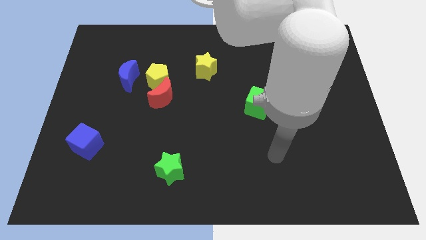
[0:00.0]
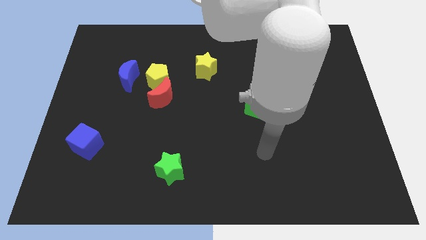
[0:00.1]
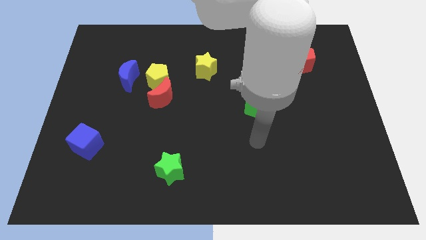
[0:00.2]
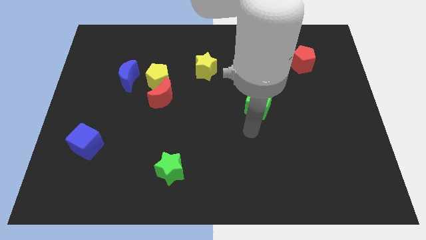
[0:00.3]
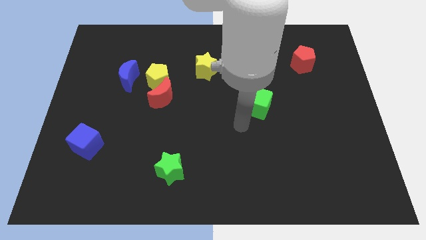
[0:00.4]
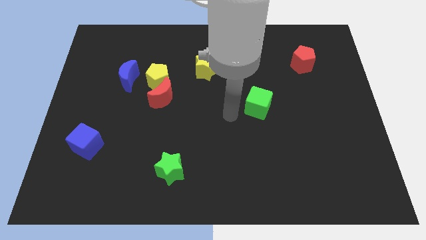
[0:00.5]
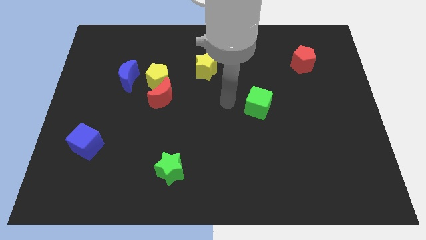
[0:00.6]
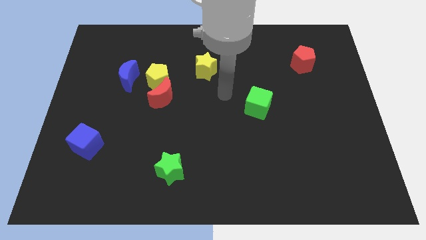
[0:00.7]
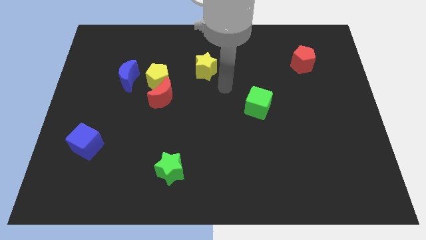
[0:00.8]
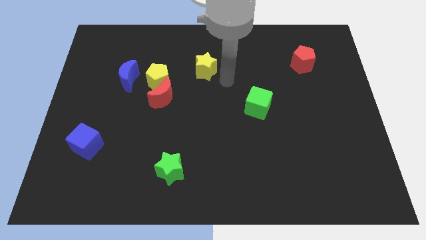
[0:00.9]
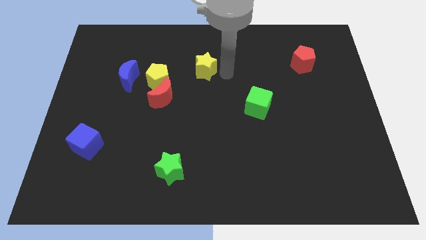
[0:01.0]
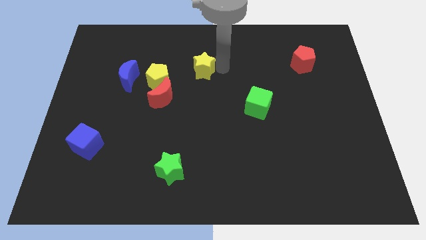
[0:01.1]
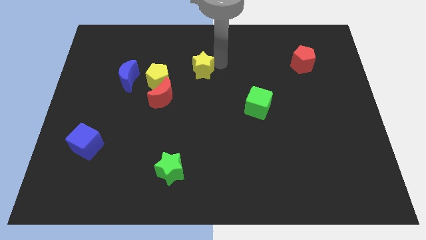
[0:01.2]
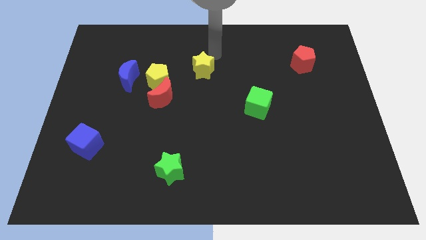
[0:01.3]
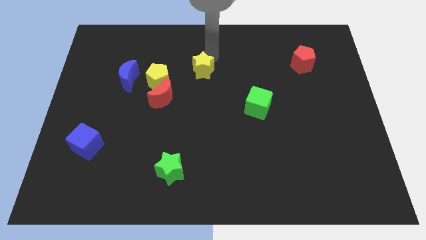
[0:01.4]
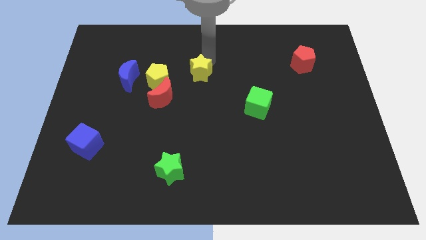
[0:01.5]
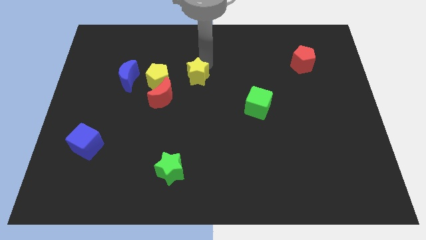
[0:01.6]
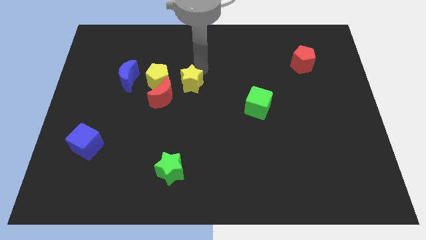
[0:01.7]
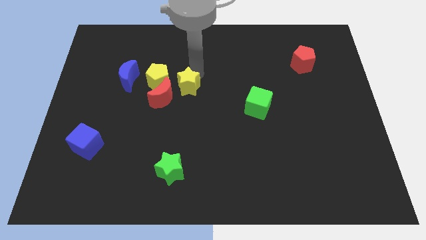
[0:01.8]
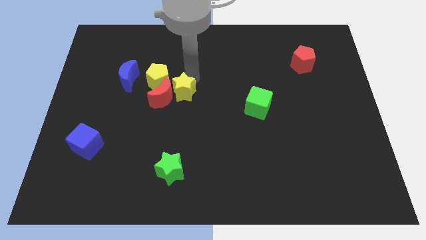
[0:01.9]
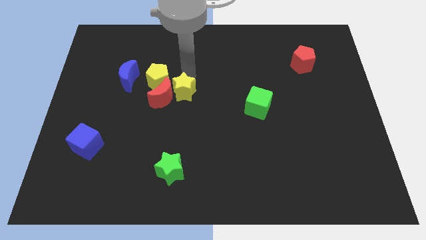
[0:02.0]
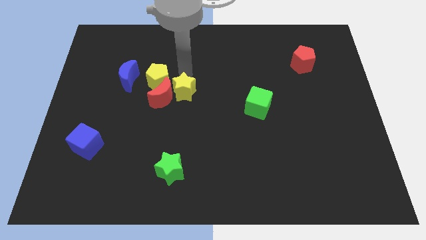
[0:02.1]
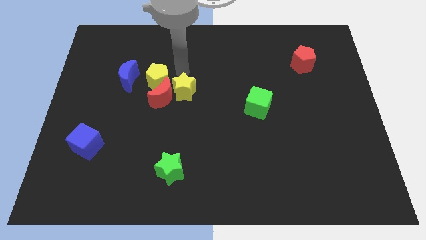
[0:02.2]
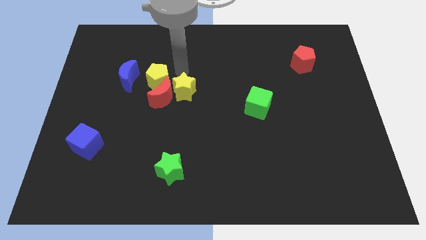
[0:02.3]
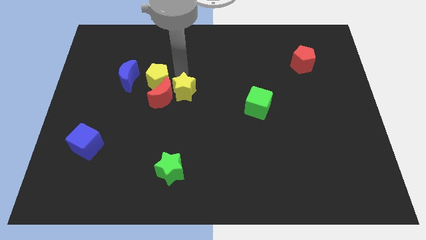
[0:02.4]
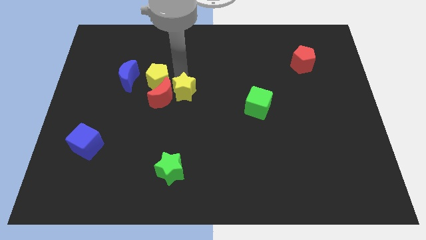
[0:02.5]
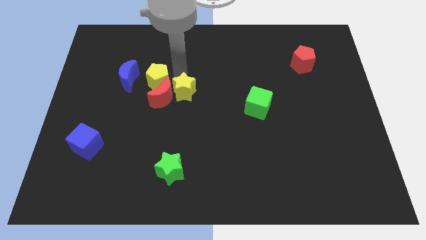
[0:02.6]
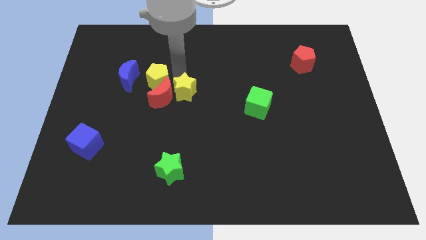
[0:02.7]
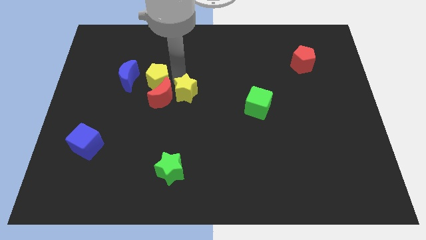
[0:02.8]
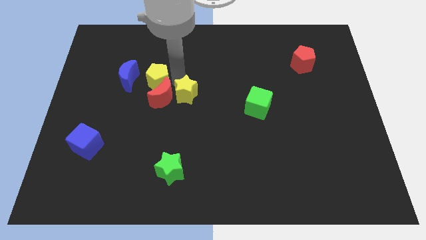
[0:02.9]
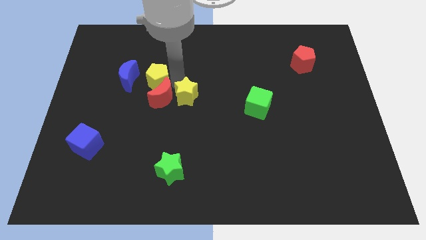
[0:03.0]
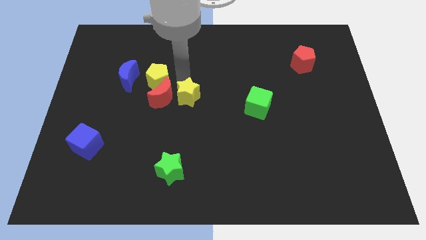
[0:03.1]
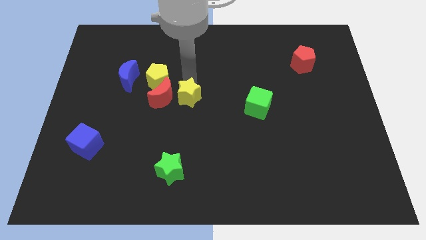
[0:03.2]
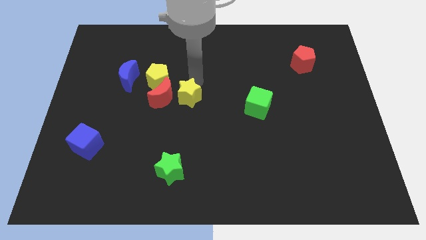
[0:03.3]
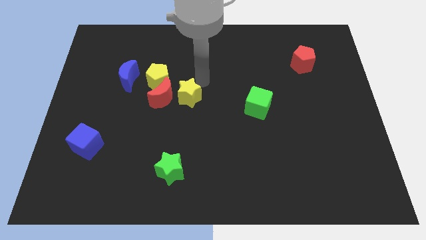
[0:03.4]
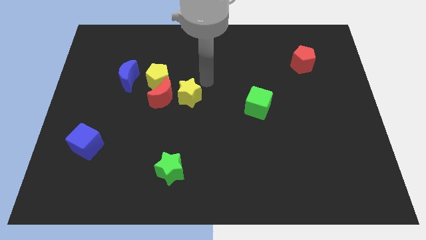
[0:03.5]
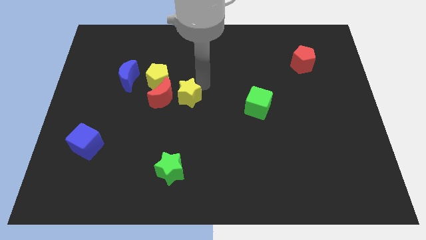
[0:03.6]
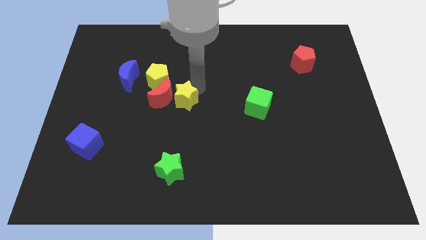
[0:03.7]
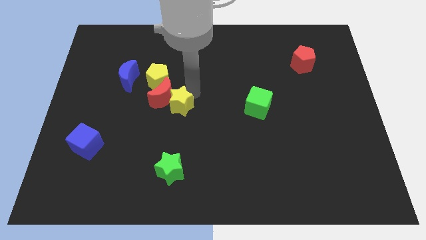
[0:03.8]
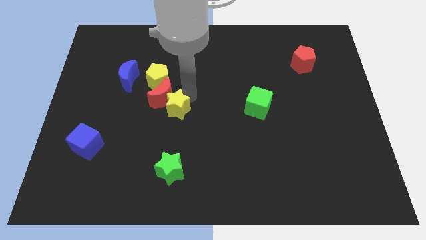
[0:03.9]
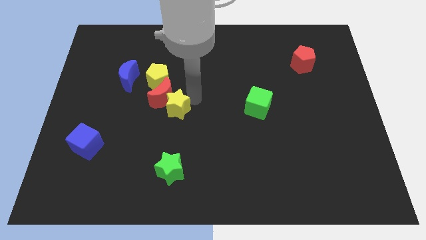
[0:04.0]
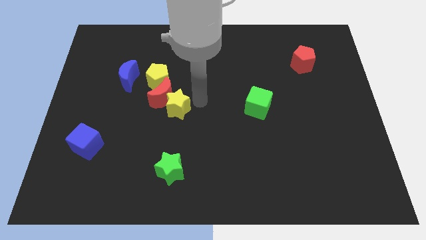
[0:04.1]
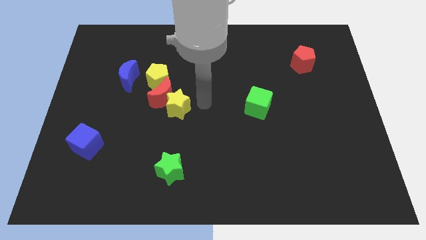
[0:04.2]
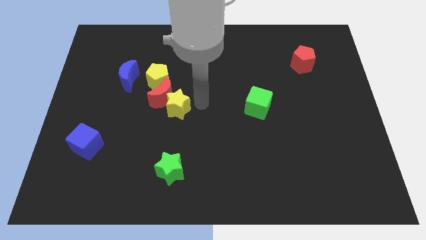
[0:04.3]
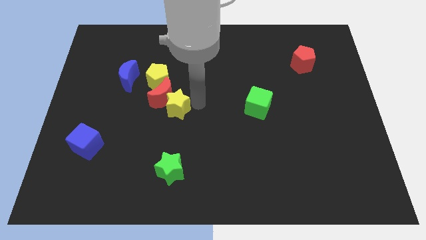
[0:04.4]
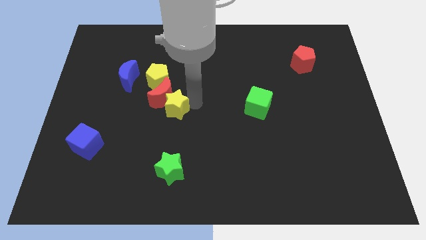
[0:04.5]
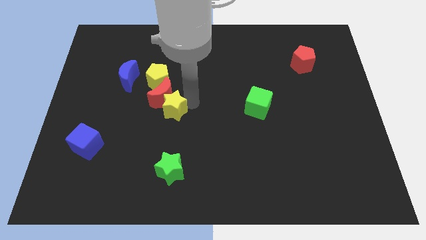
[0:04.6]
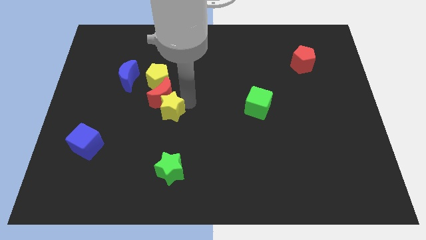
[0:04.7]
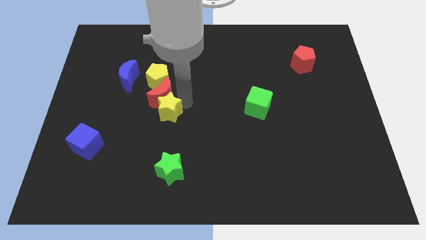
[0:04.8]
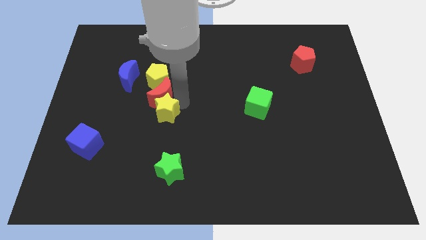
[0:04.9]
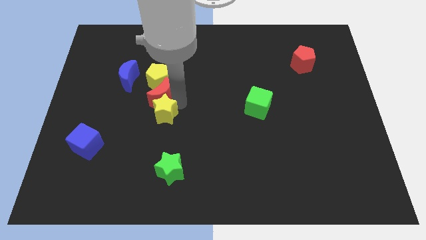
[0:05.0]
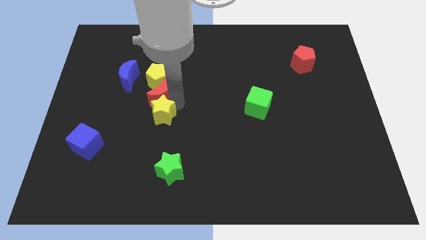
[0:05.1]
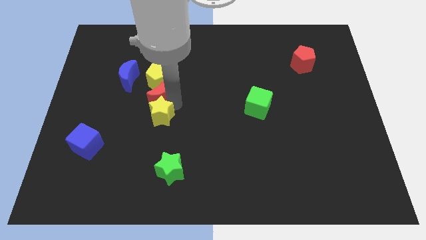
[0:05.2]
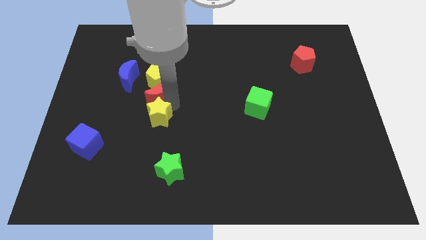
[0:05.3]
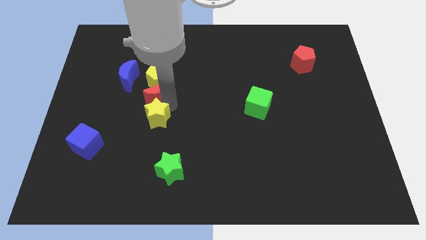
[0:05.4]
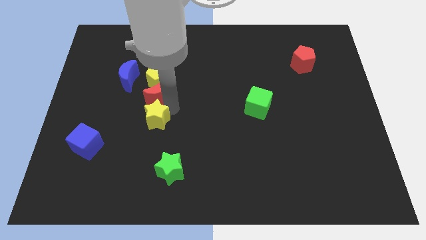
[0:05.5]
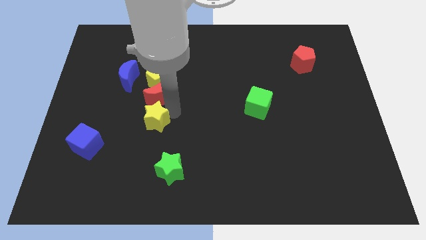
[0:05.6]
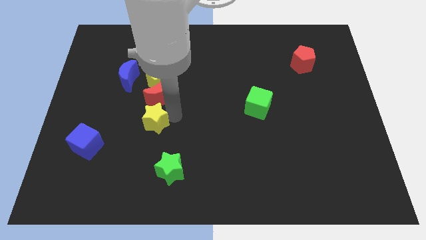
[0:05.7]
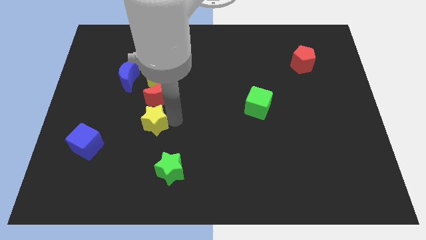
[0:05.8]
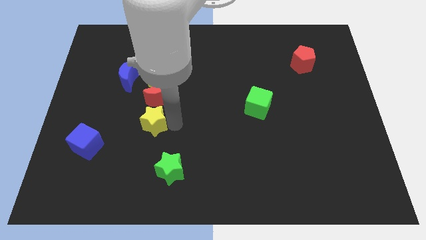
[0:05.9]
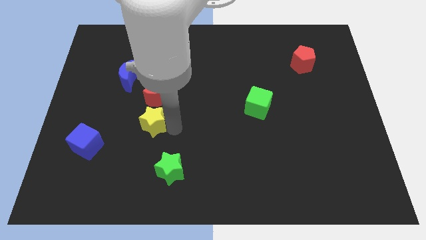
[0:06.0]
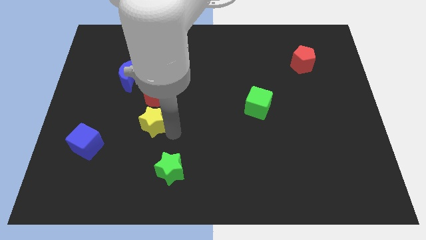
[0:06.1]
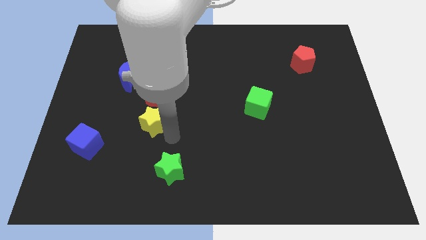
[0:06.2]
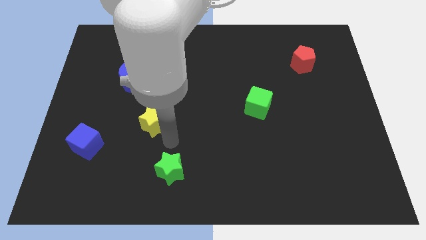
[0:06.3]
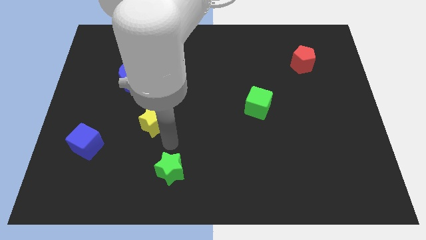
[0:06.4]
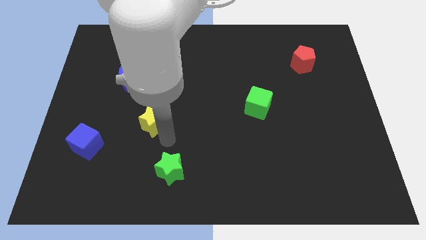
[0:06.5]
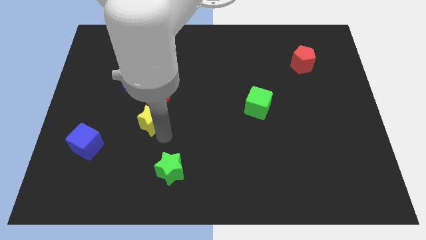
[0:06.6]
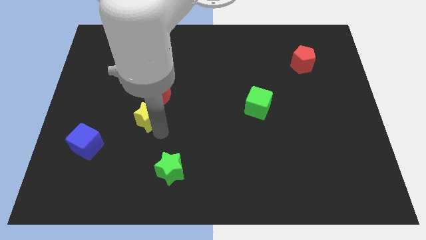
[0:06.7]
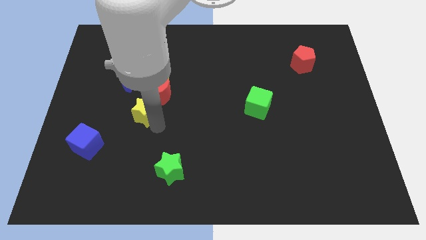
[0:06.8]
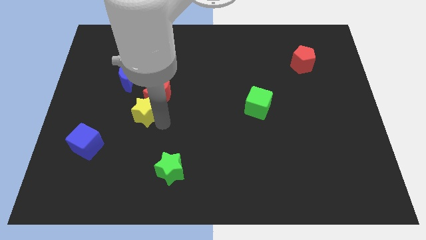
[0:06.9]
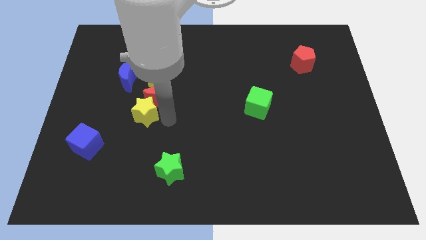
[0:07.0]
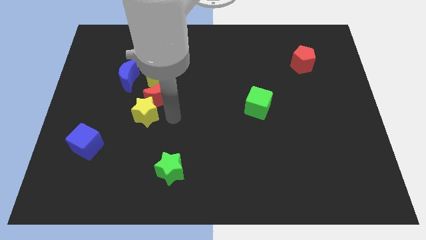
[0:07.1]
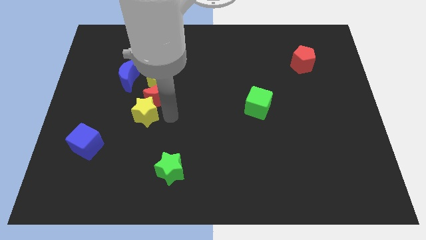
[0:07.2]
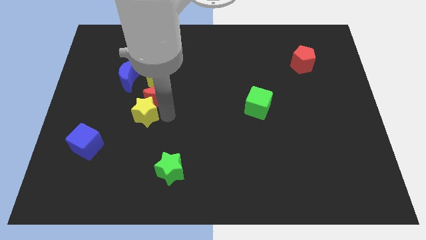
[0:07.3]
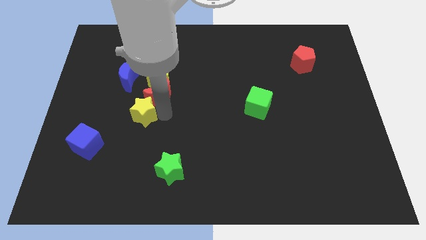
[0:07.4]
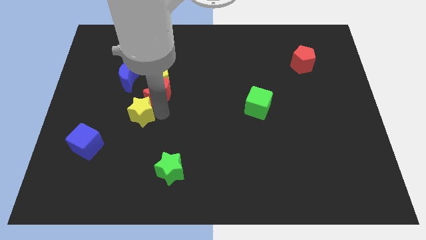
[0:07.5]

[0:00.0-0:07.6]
slide the yellow star below the blue moon
